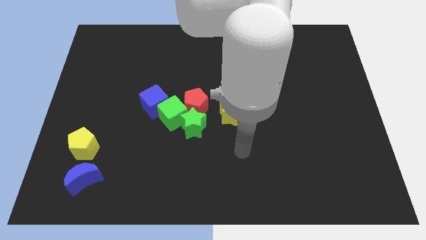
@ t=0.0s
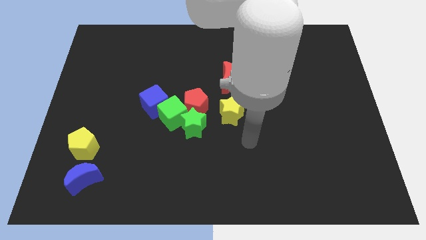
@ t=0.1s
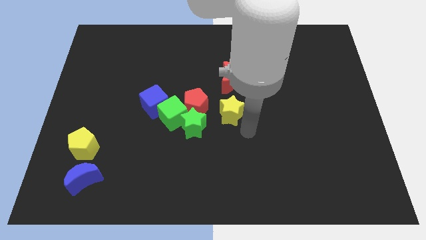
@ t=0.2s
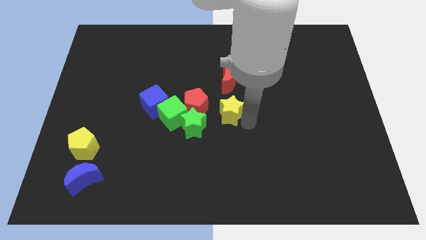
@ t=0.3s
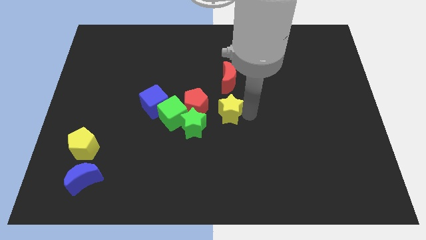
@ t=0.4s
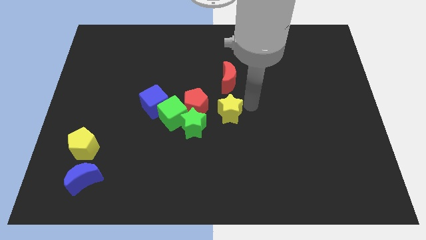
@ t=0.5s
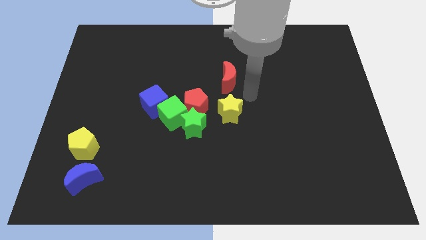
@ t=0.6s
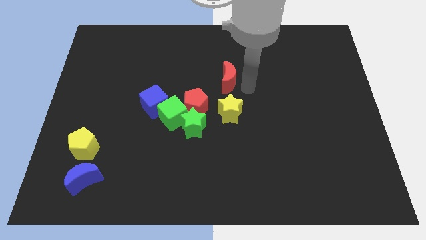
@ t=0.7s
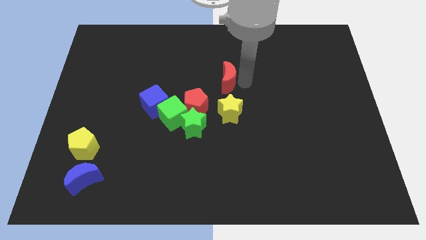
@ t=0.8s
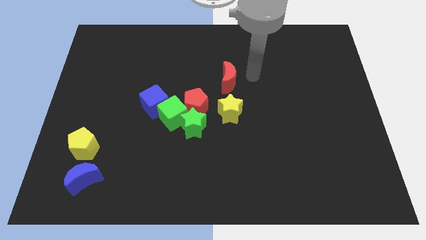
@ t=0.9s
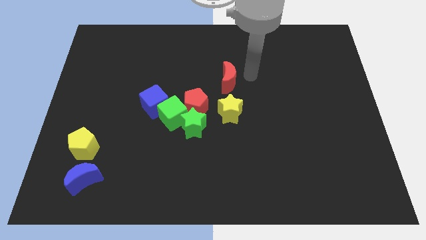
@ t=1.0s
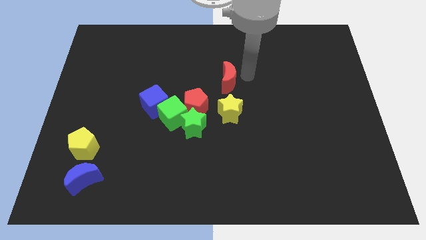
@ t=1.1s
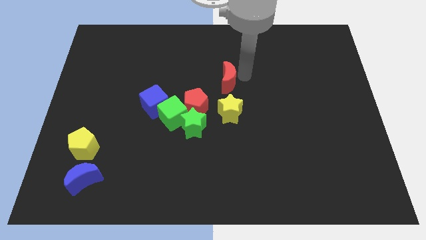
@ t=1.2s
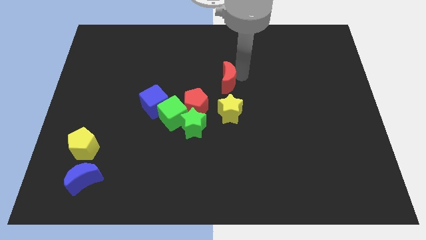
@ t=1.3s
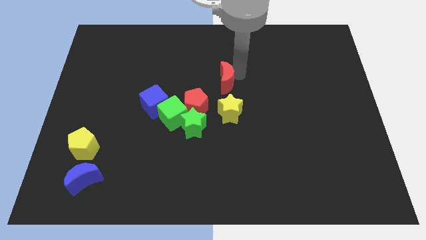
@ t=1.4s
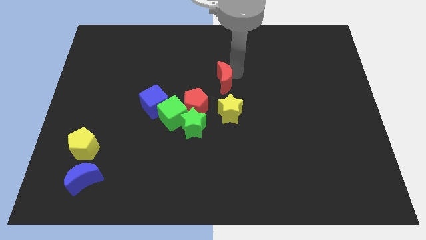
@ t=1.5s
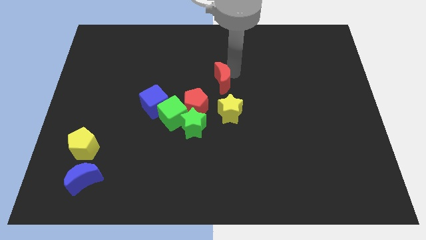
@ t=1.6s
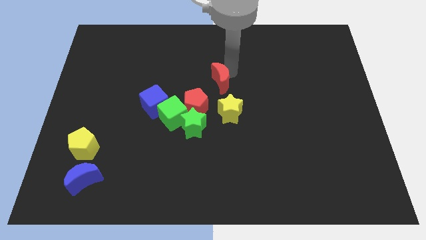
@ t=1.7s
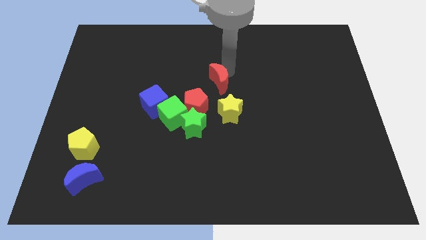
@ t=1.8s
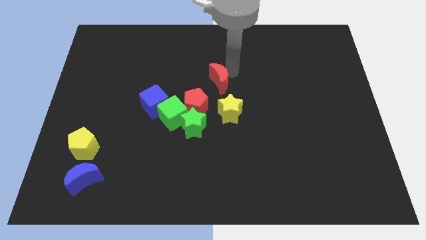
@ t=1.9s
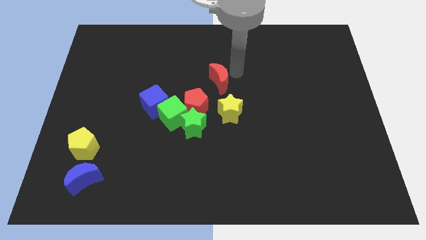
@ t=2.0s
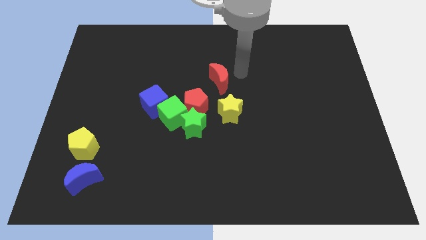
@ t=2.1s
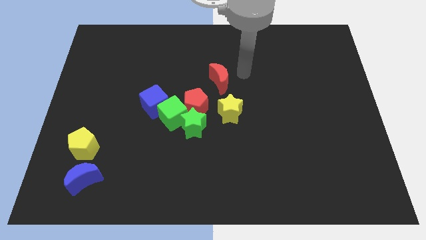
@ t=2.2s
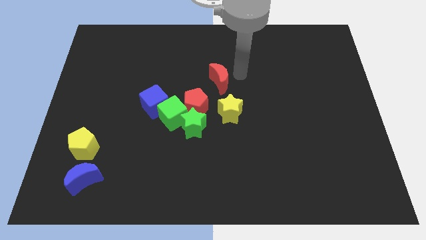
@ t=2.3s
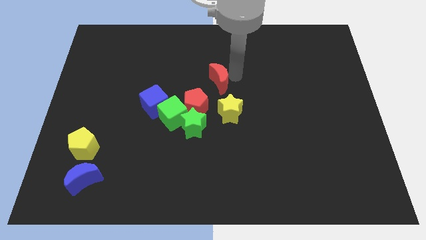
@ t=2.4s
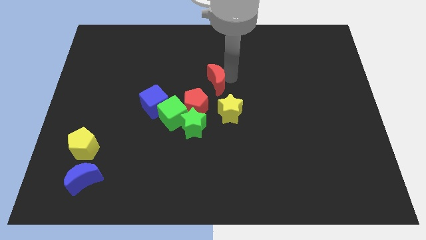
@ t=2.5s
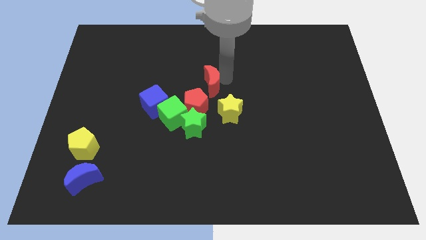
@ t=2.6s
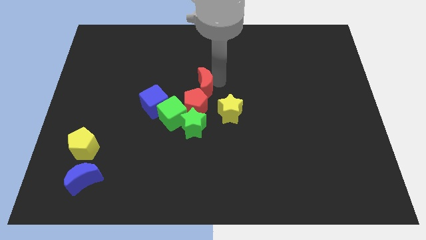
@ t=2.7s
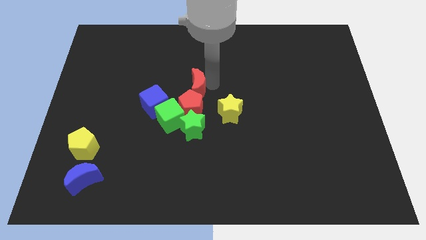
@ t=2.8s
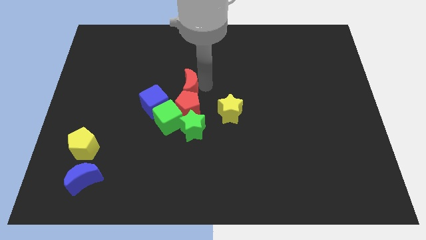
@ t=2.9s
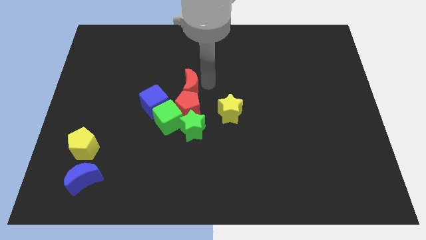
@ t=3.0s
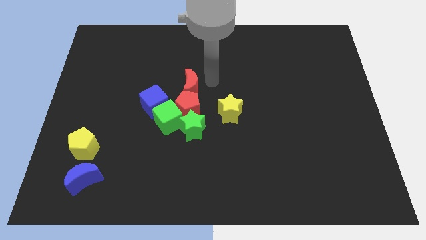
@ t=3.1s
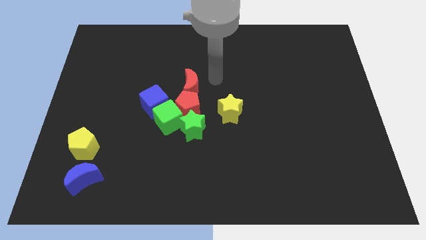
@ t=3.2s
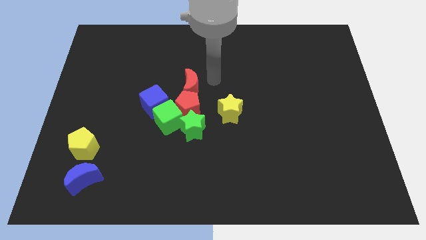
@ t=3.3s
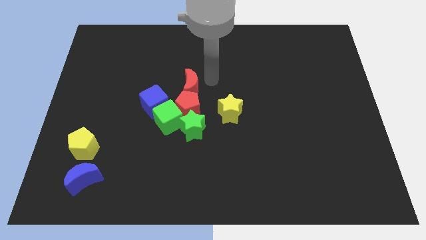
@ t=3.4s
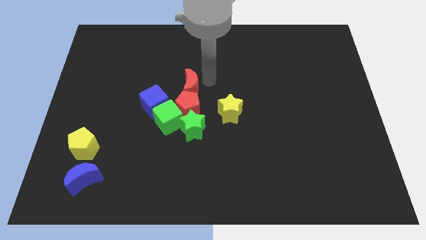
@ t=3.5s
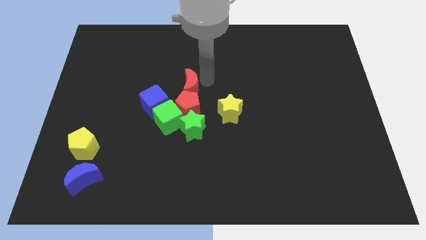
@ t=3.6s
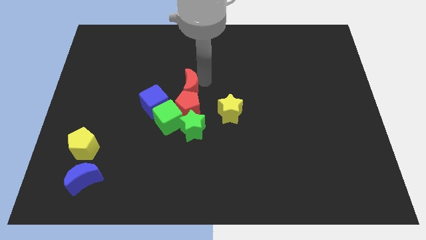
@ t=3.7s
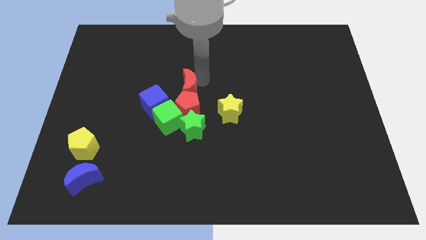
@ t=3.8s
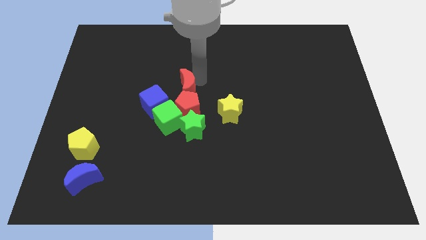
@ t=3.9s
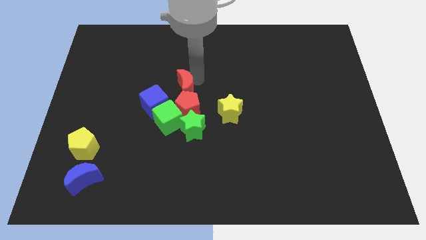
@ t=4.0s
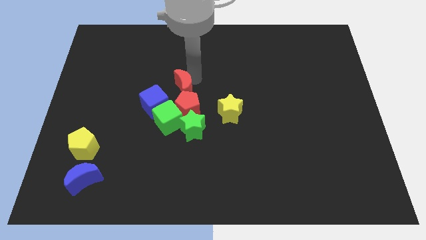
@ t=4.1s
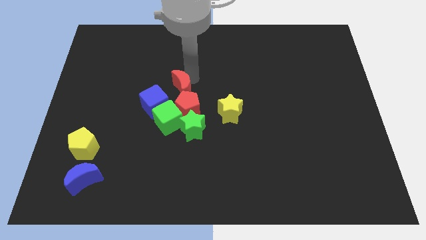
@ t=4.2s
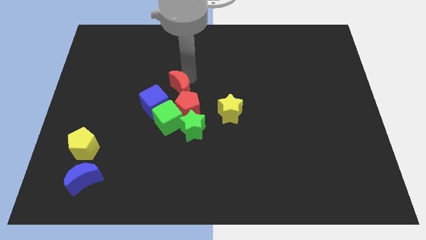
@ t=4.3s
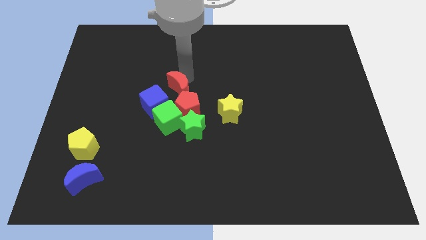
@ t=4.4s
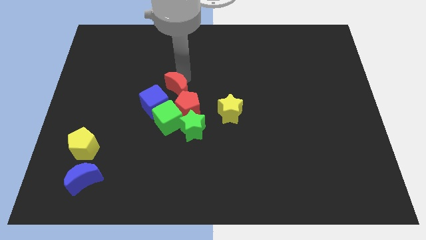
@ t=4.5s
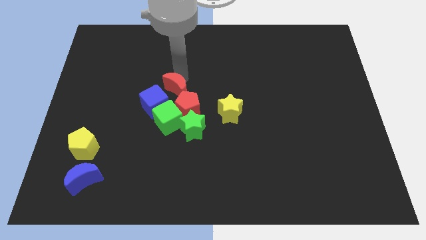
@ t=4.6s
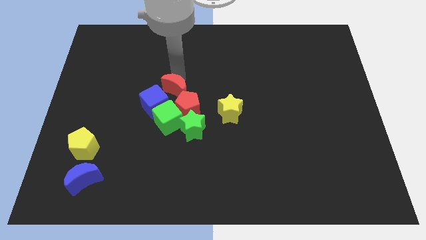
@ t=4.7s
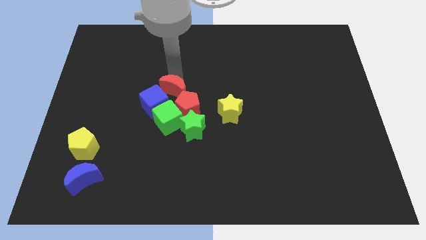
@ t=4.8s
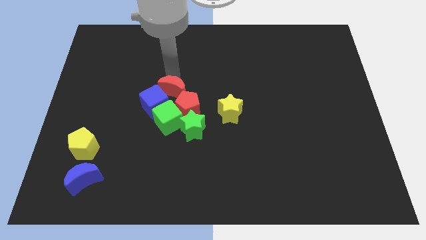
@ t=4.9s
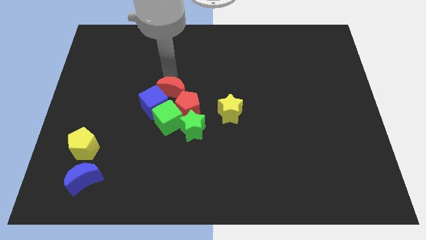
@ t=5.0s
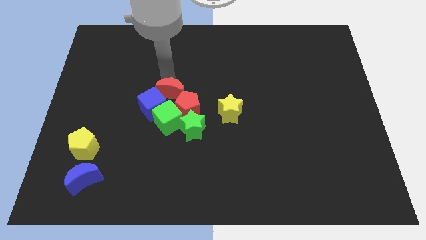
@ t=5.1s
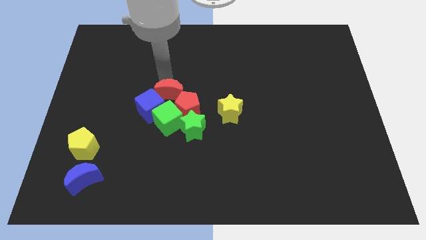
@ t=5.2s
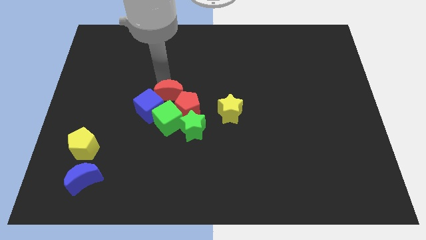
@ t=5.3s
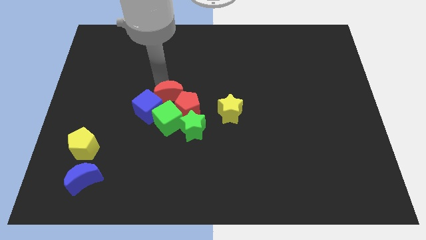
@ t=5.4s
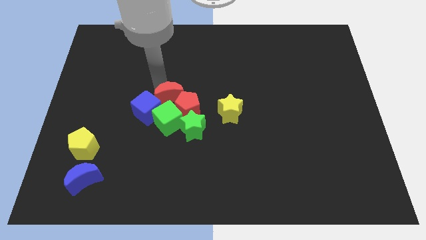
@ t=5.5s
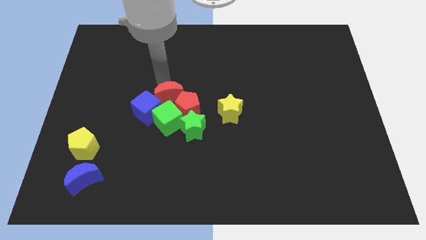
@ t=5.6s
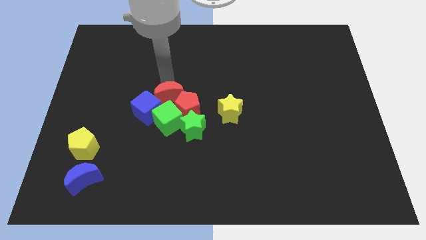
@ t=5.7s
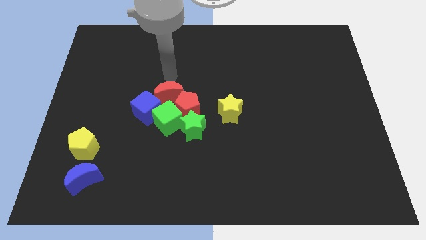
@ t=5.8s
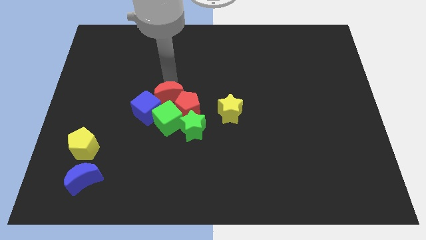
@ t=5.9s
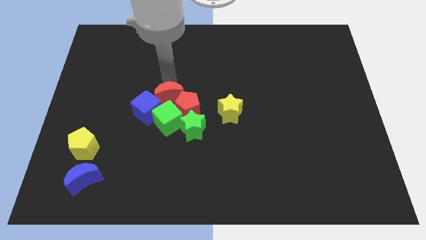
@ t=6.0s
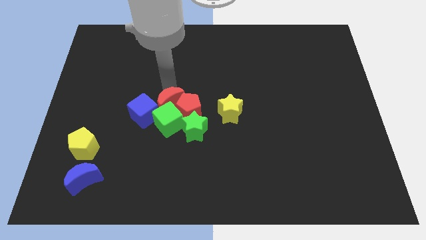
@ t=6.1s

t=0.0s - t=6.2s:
move the red moon close to the green cube

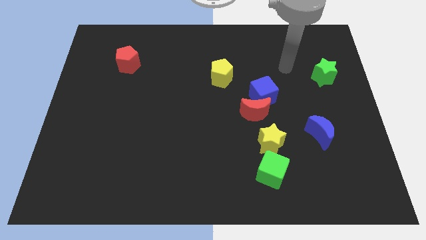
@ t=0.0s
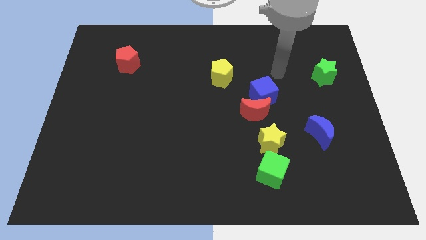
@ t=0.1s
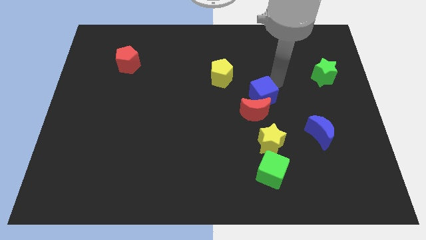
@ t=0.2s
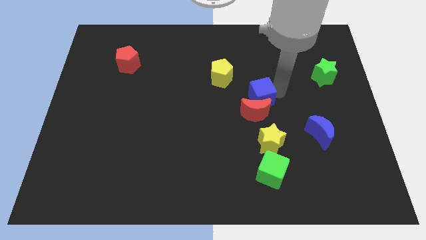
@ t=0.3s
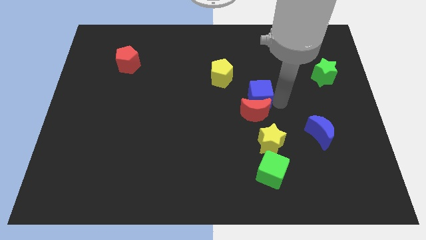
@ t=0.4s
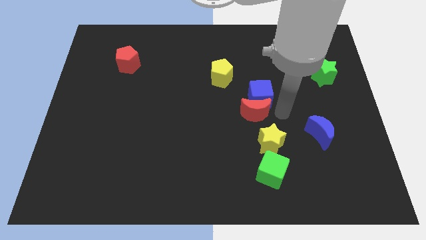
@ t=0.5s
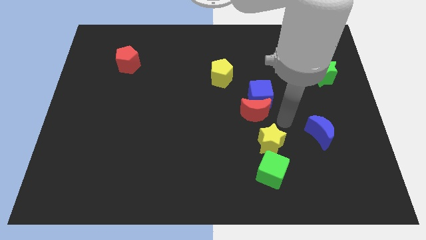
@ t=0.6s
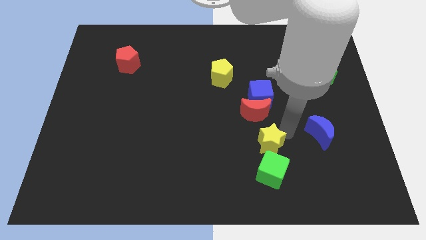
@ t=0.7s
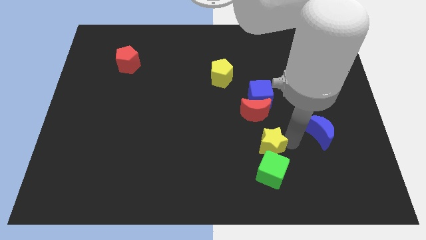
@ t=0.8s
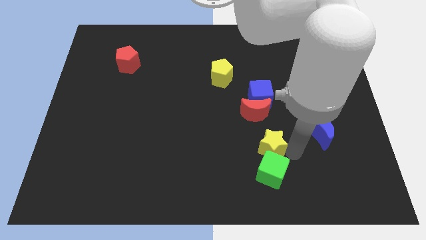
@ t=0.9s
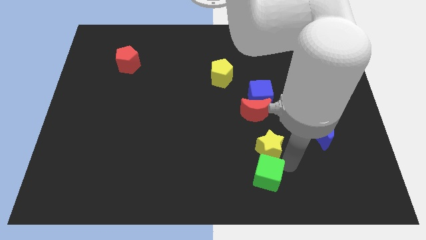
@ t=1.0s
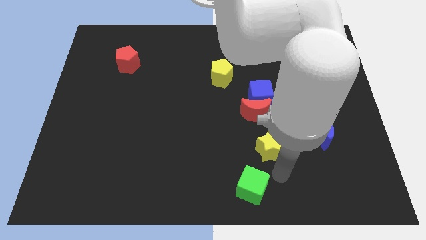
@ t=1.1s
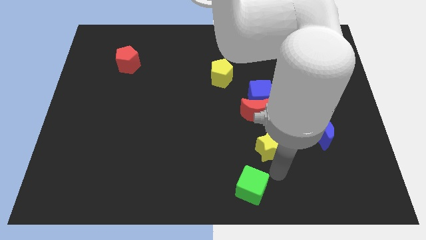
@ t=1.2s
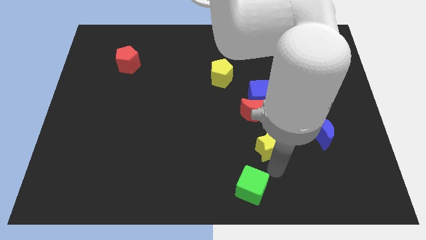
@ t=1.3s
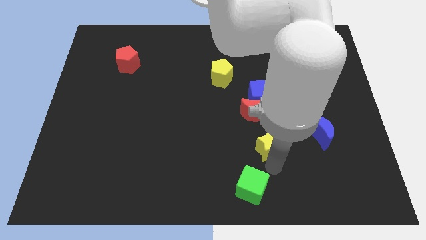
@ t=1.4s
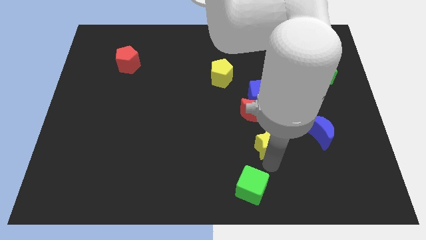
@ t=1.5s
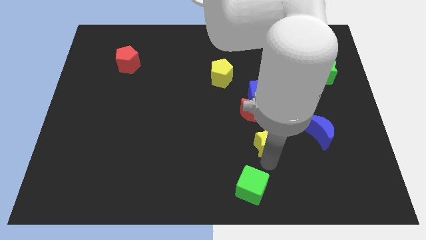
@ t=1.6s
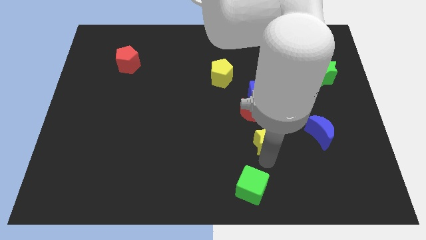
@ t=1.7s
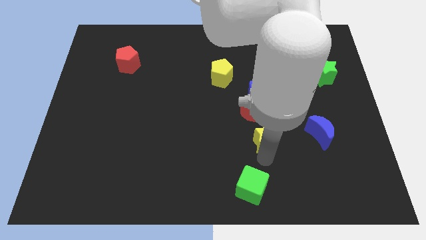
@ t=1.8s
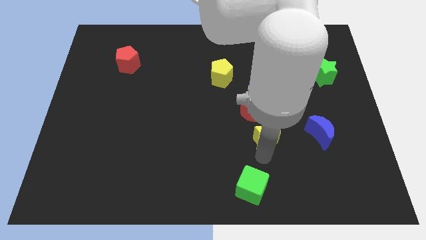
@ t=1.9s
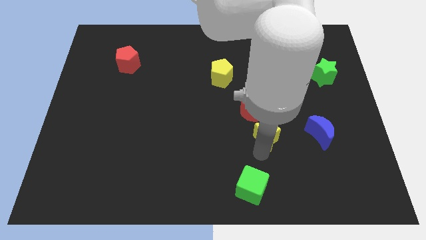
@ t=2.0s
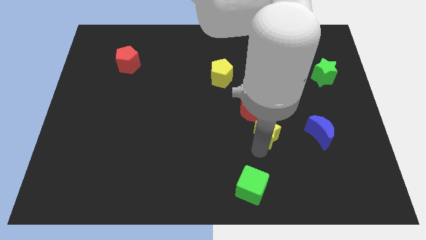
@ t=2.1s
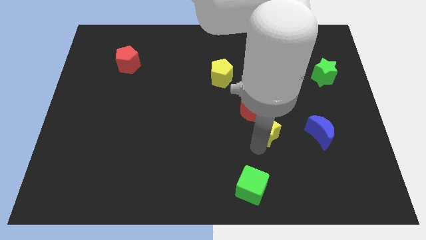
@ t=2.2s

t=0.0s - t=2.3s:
slide the yellow star towards the red moon
